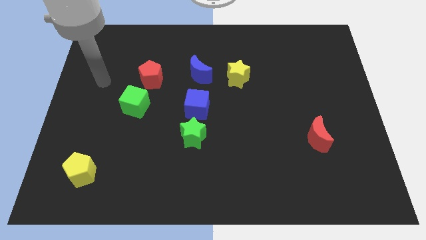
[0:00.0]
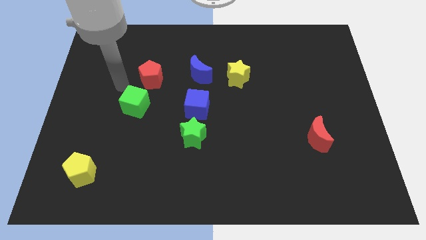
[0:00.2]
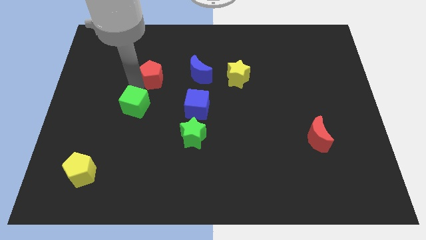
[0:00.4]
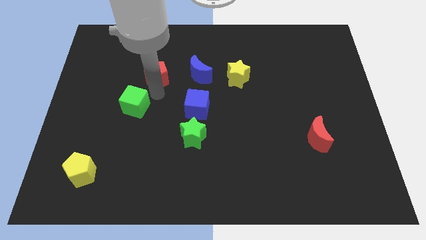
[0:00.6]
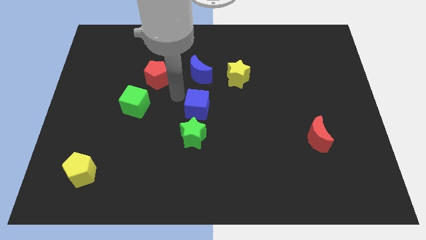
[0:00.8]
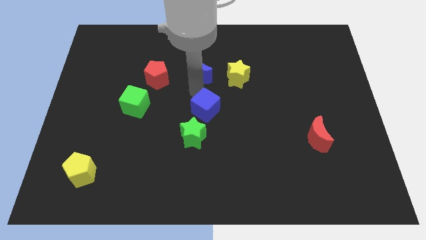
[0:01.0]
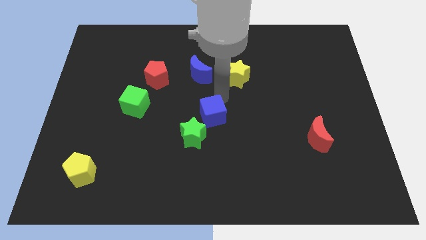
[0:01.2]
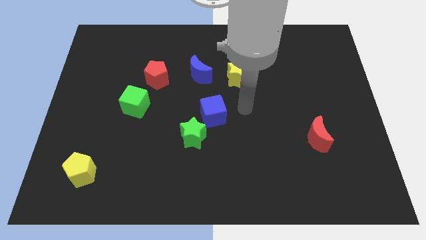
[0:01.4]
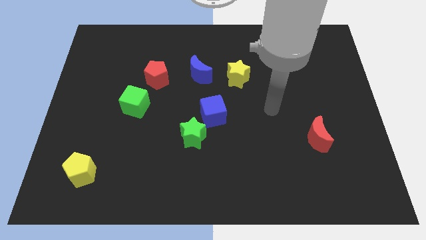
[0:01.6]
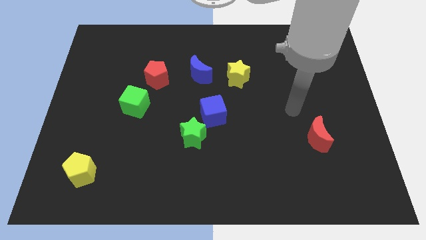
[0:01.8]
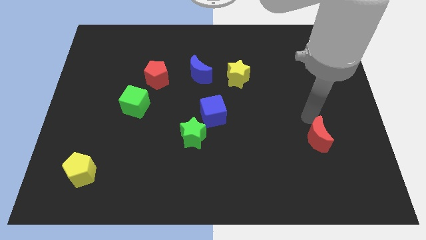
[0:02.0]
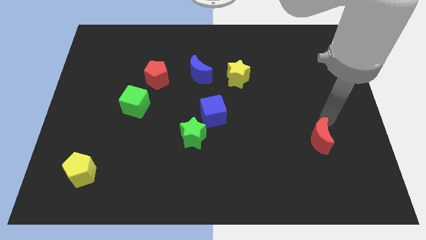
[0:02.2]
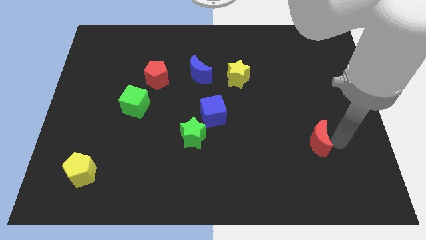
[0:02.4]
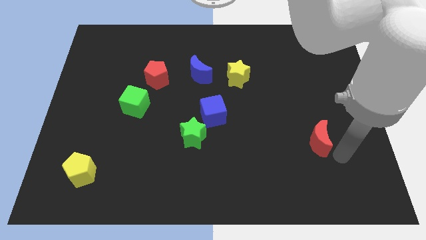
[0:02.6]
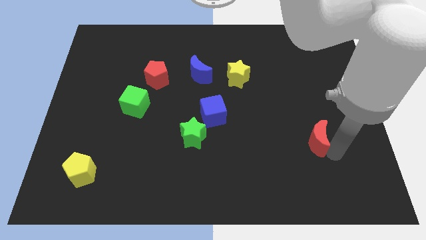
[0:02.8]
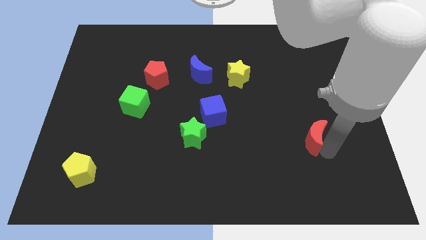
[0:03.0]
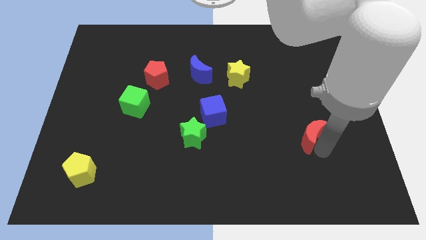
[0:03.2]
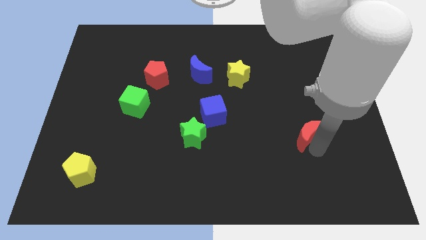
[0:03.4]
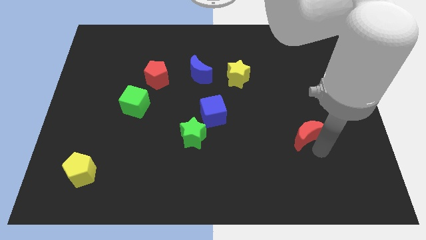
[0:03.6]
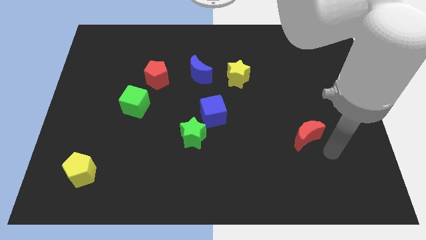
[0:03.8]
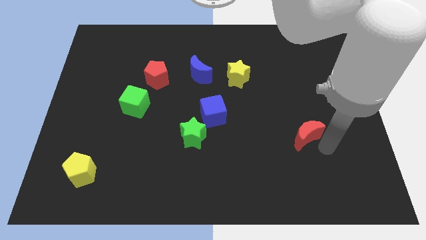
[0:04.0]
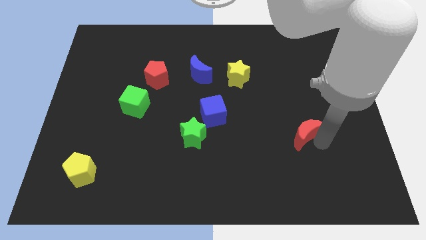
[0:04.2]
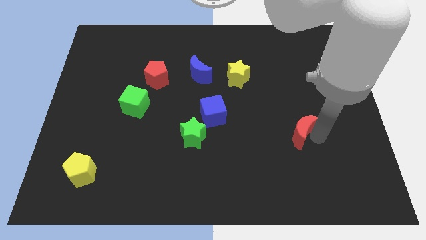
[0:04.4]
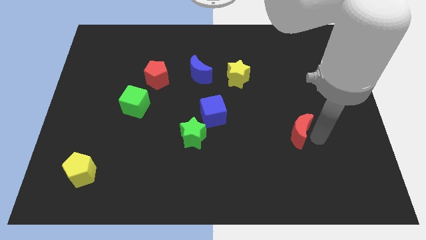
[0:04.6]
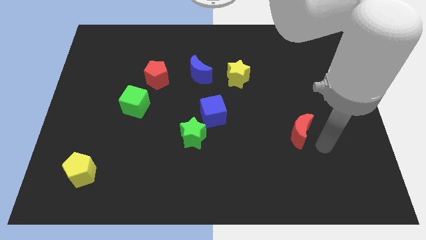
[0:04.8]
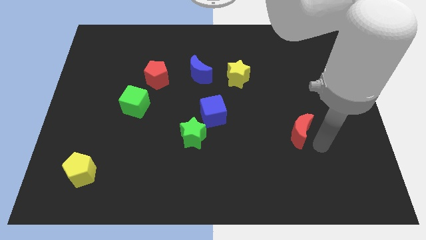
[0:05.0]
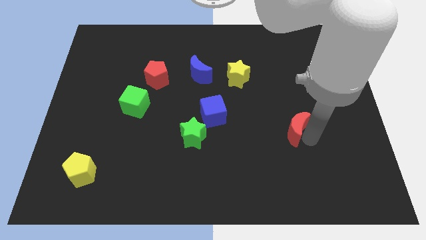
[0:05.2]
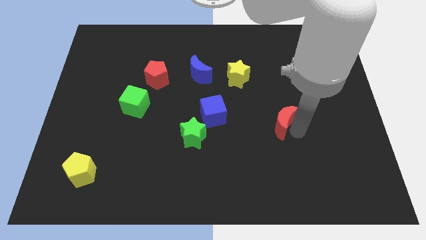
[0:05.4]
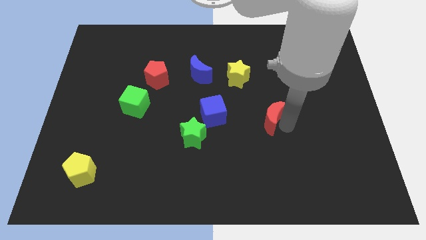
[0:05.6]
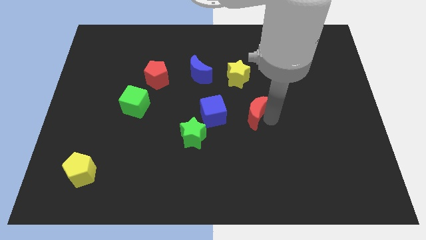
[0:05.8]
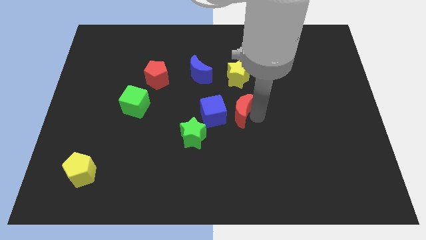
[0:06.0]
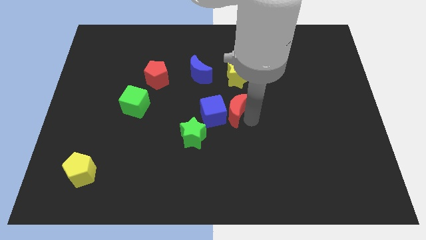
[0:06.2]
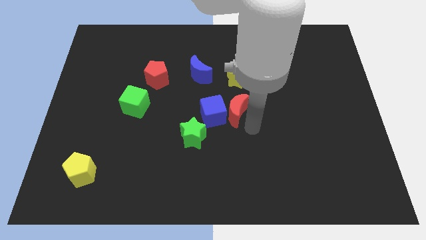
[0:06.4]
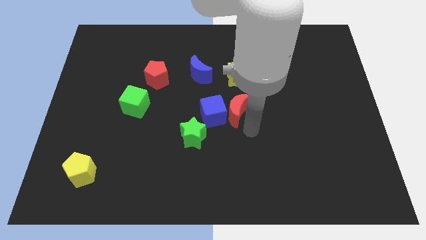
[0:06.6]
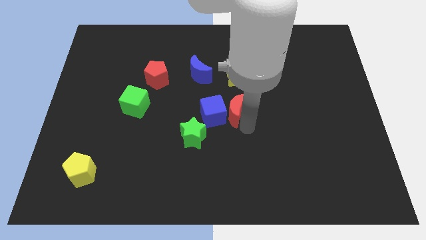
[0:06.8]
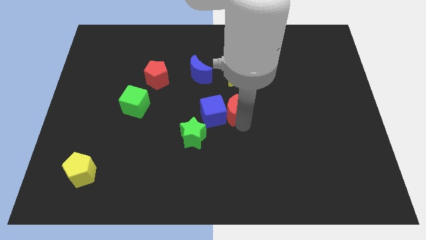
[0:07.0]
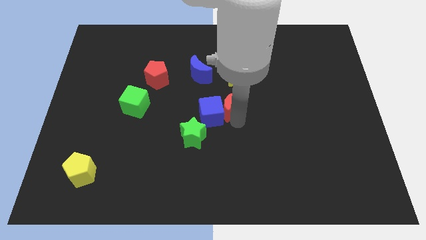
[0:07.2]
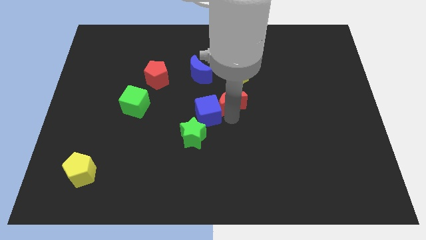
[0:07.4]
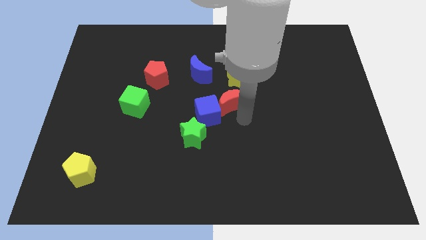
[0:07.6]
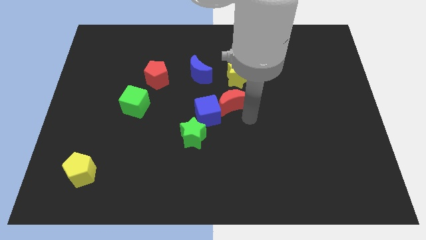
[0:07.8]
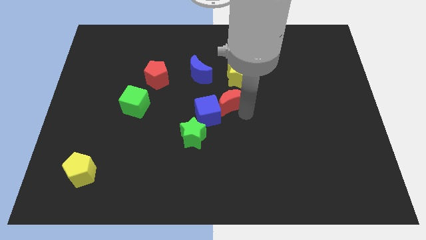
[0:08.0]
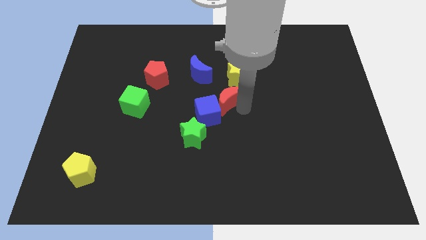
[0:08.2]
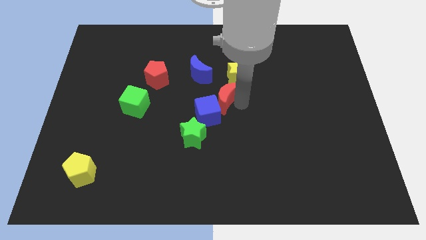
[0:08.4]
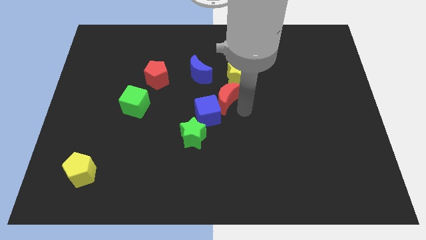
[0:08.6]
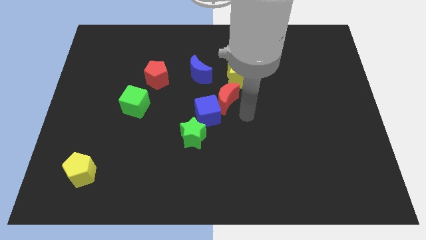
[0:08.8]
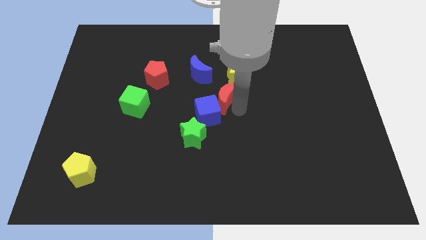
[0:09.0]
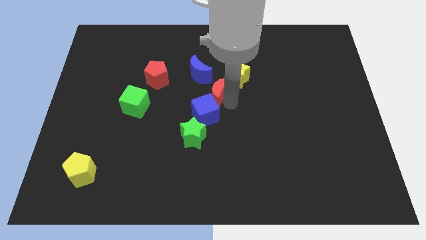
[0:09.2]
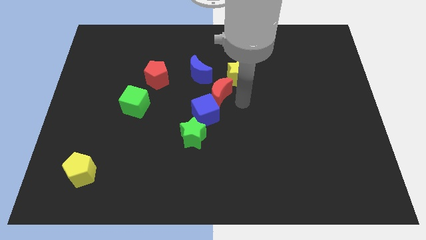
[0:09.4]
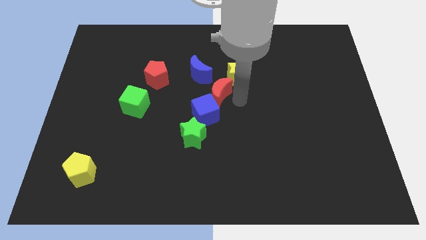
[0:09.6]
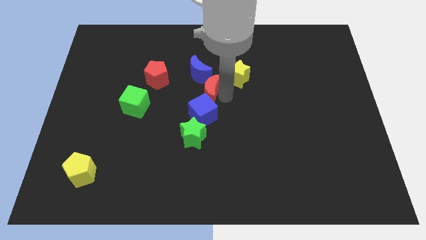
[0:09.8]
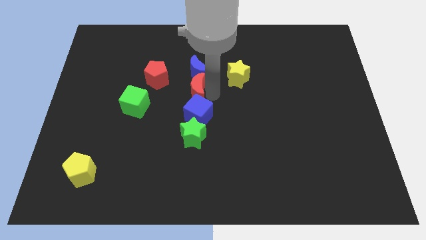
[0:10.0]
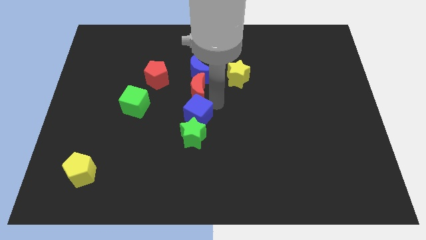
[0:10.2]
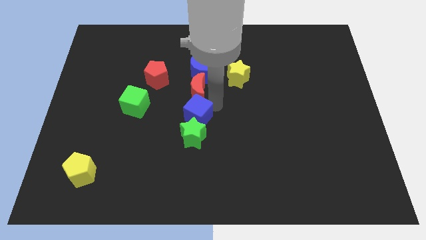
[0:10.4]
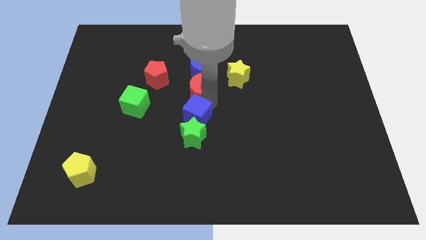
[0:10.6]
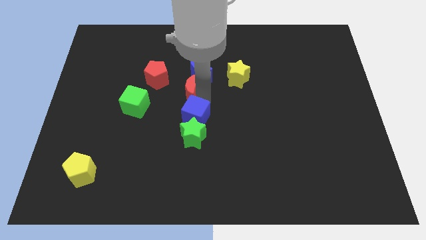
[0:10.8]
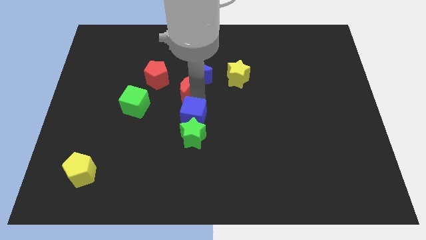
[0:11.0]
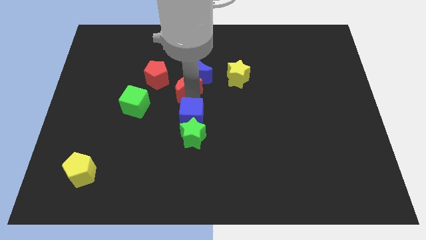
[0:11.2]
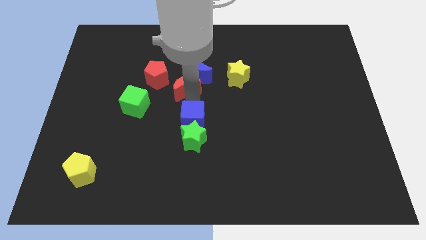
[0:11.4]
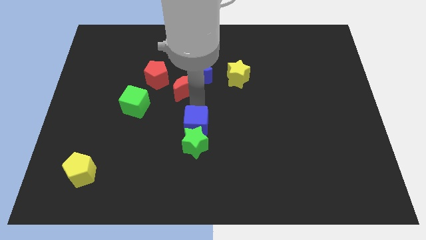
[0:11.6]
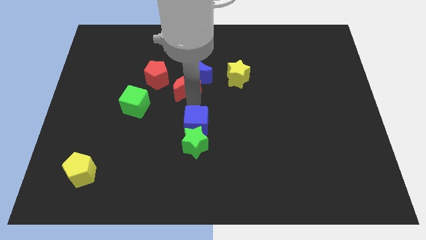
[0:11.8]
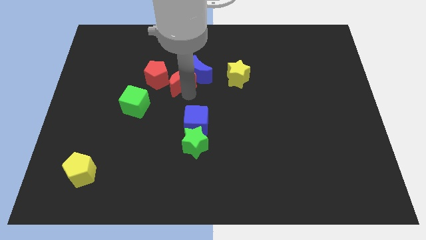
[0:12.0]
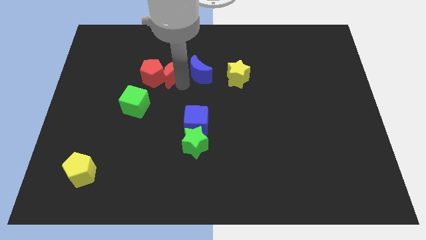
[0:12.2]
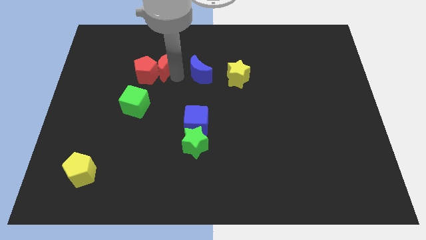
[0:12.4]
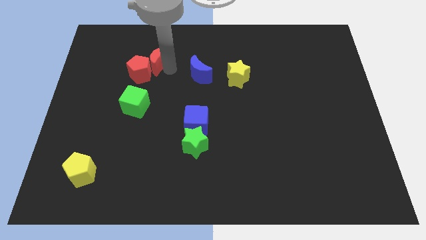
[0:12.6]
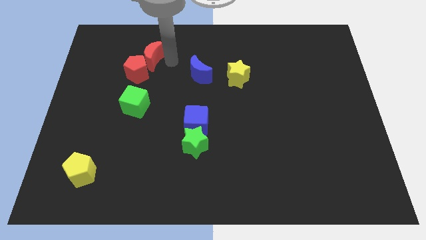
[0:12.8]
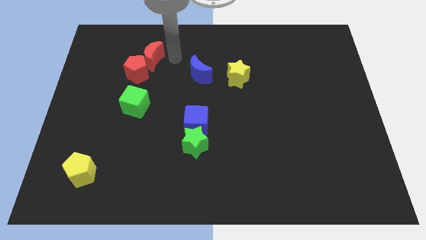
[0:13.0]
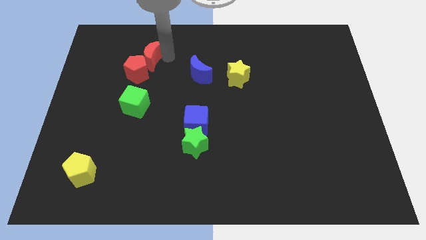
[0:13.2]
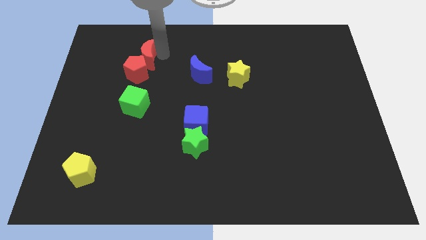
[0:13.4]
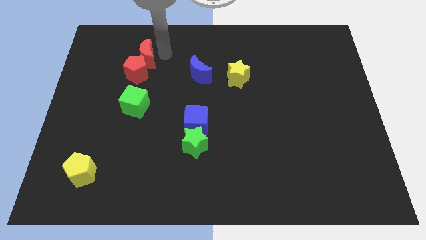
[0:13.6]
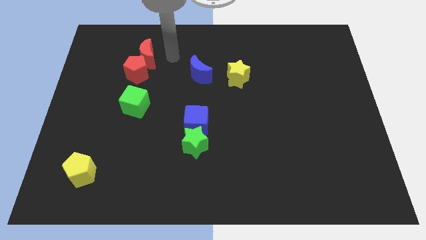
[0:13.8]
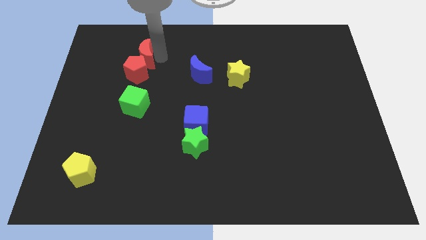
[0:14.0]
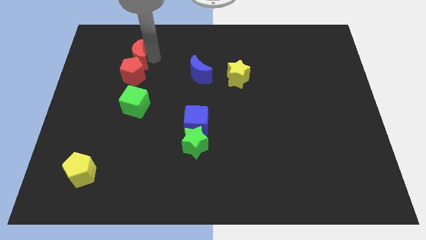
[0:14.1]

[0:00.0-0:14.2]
push the red moon to the top left side of the red pentagon

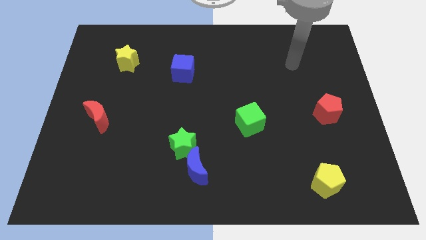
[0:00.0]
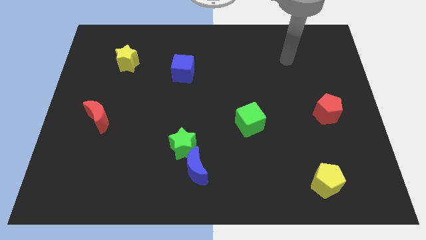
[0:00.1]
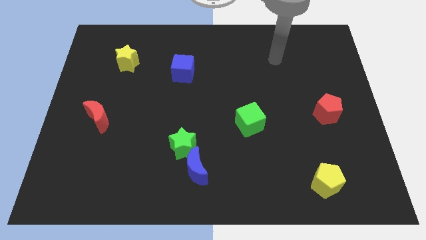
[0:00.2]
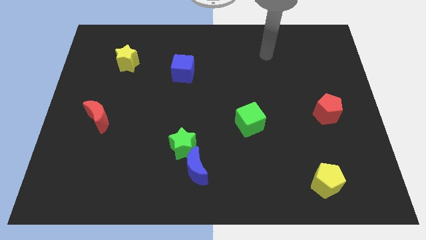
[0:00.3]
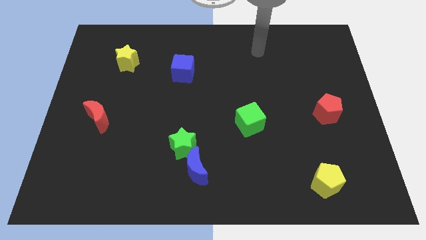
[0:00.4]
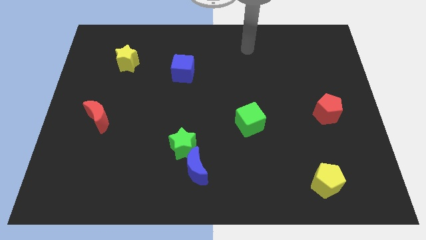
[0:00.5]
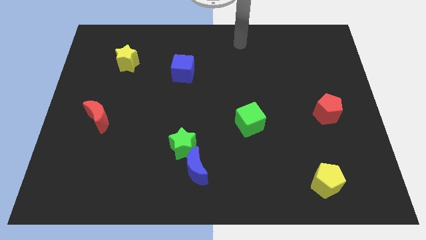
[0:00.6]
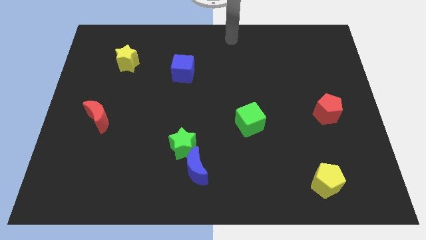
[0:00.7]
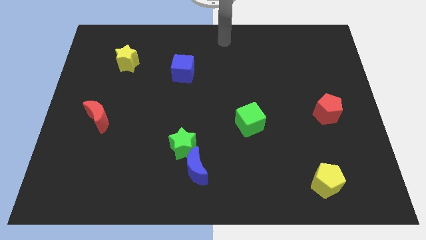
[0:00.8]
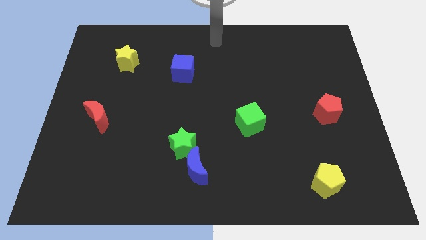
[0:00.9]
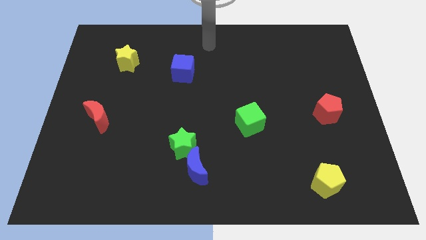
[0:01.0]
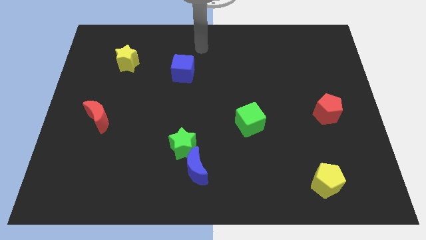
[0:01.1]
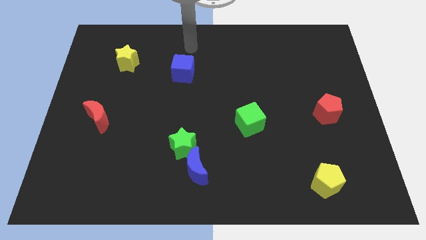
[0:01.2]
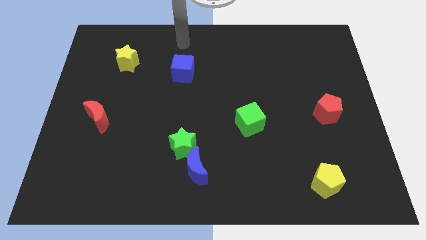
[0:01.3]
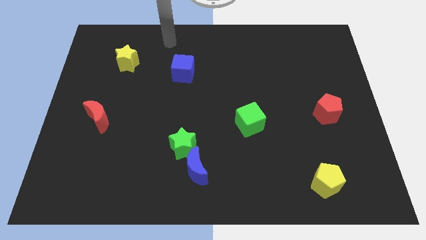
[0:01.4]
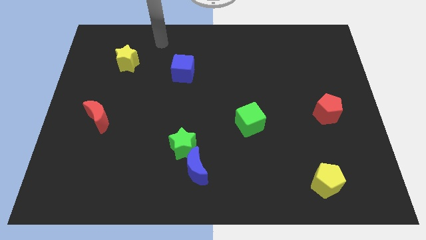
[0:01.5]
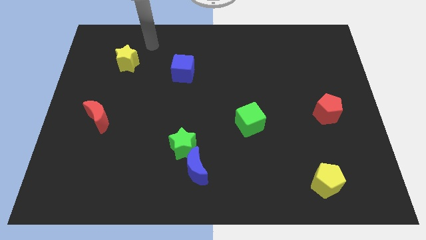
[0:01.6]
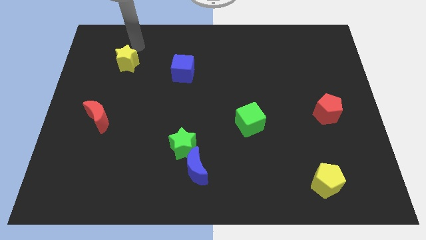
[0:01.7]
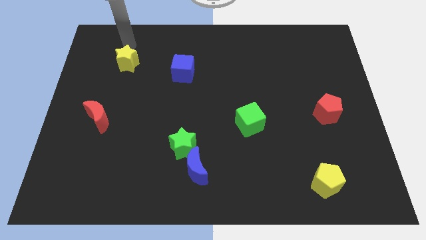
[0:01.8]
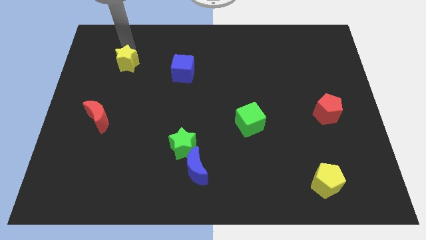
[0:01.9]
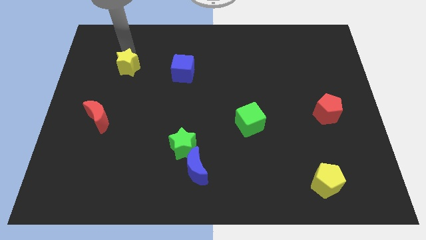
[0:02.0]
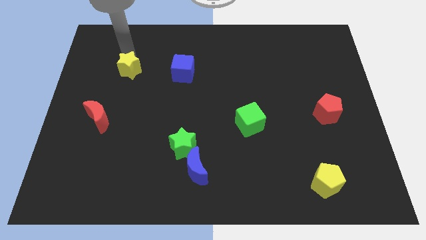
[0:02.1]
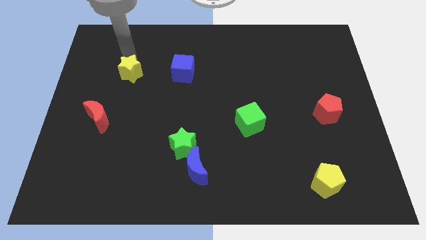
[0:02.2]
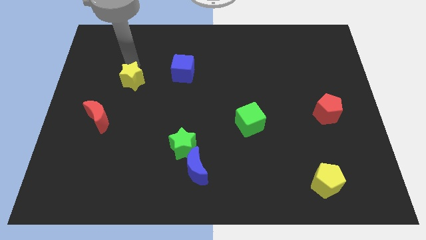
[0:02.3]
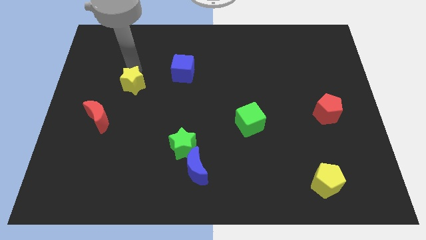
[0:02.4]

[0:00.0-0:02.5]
push the yellow star diagonally up and to the right of the red moon
